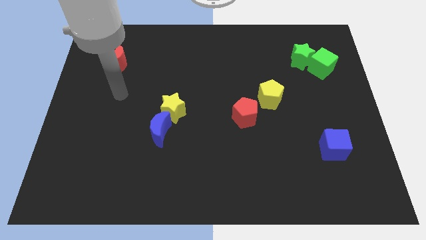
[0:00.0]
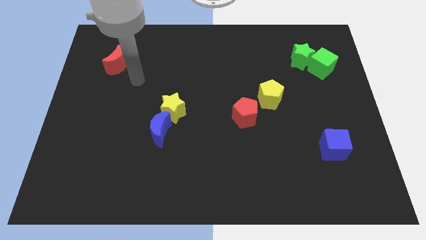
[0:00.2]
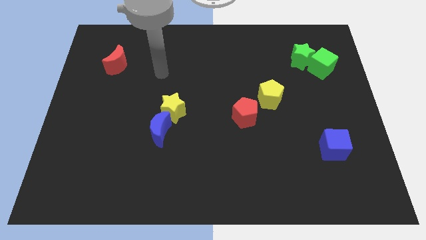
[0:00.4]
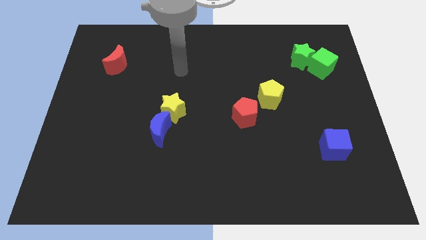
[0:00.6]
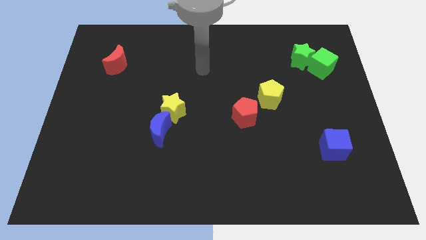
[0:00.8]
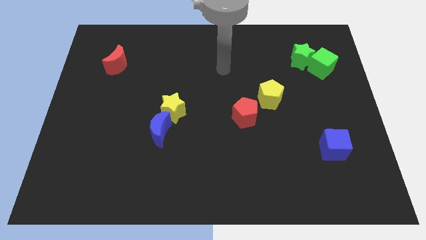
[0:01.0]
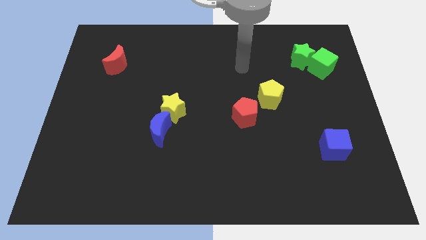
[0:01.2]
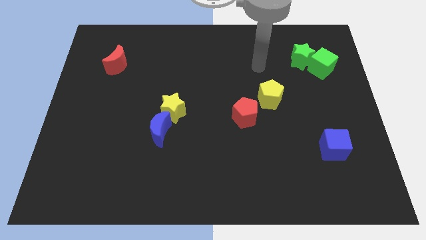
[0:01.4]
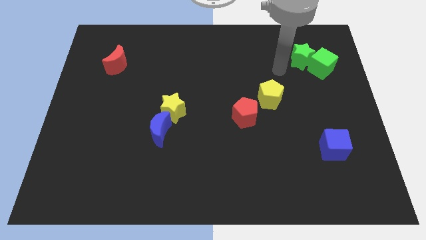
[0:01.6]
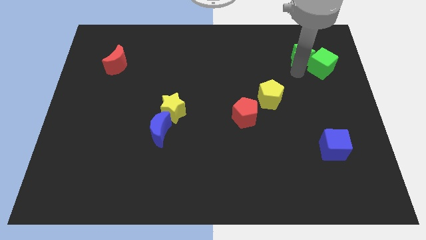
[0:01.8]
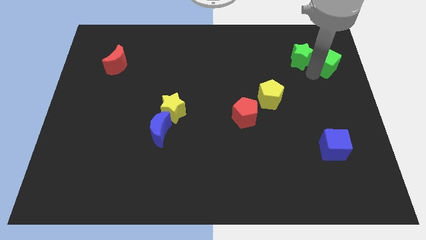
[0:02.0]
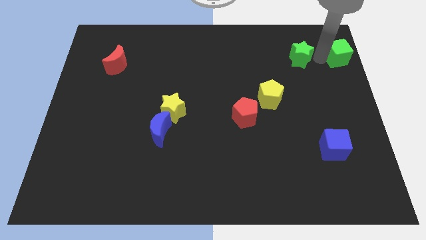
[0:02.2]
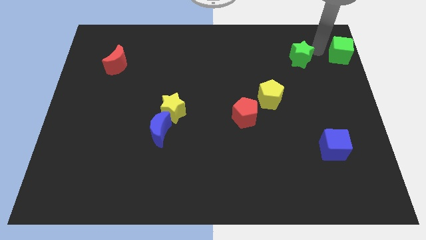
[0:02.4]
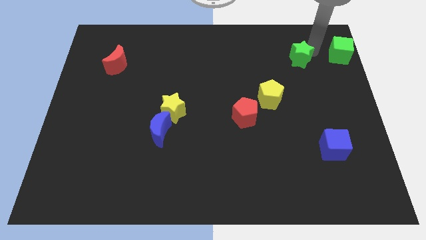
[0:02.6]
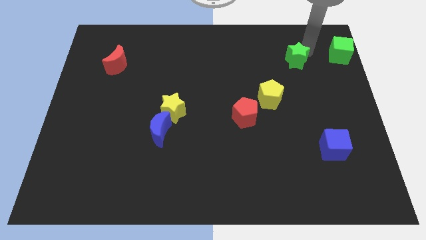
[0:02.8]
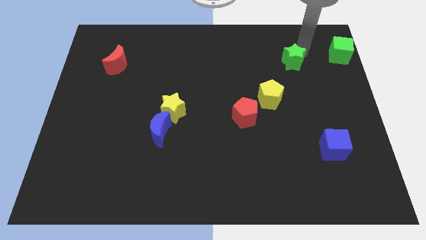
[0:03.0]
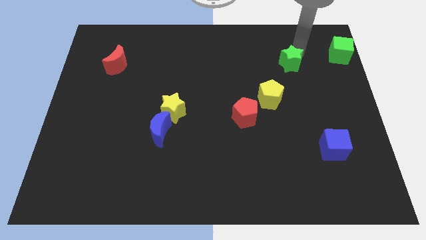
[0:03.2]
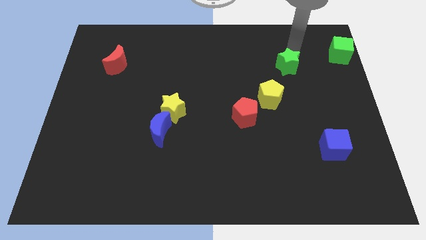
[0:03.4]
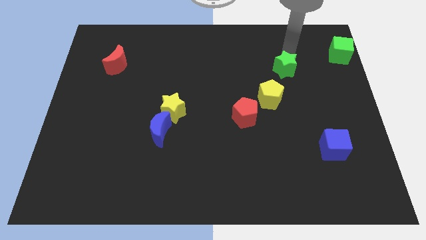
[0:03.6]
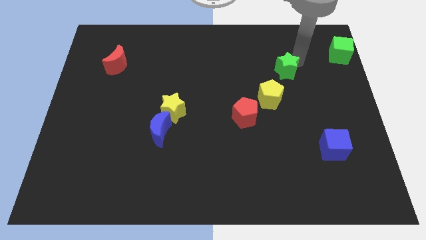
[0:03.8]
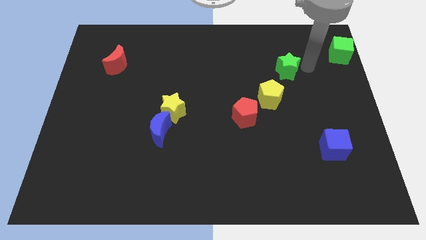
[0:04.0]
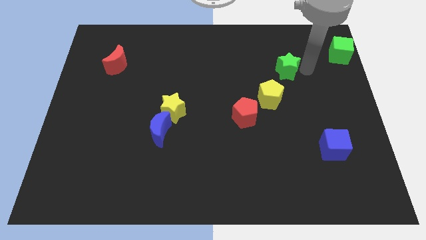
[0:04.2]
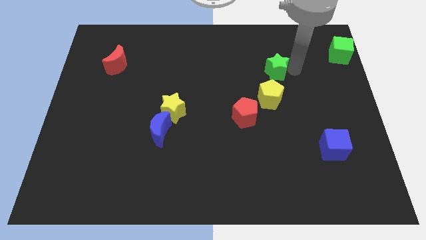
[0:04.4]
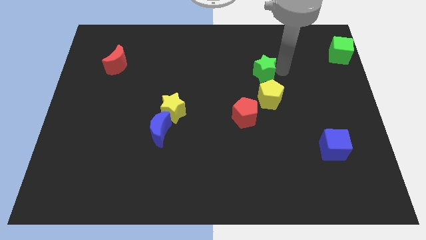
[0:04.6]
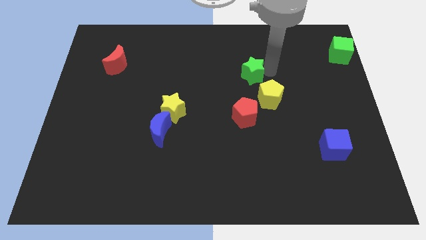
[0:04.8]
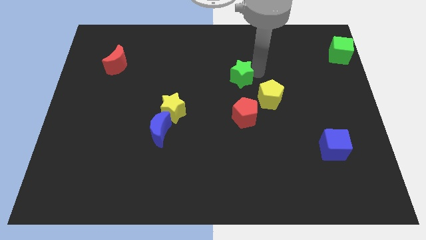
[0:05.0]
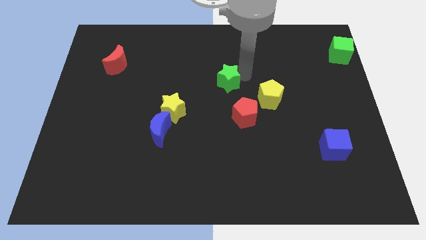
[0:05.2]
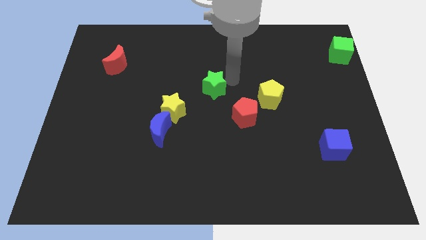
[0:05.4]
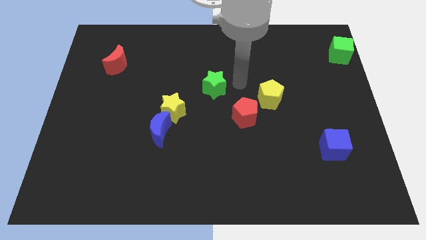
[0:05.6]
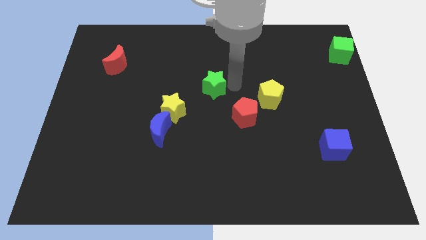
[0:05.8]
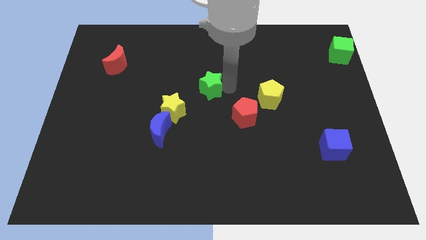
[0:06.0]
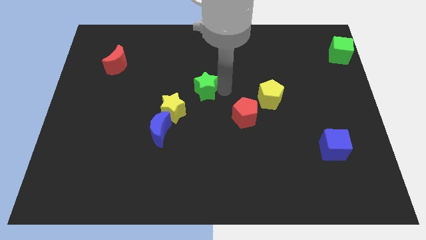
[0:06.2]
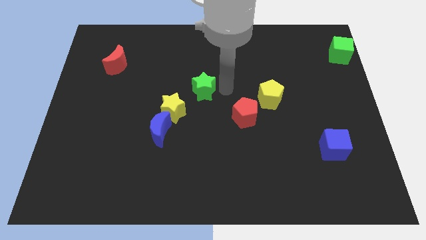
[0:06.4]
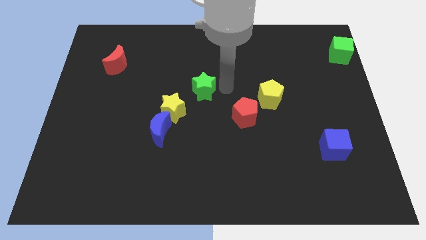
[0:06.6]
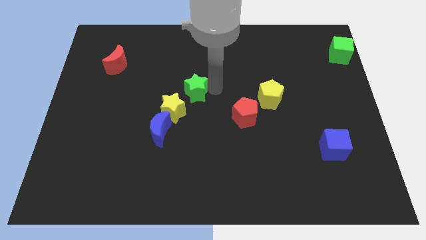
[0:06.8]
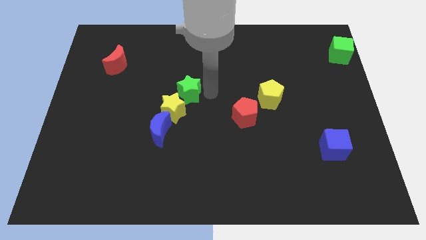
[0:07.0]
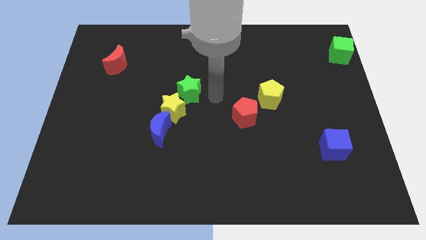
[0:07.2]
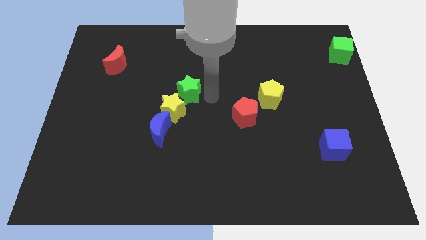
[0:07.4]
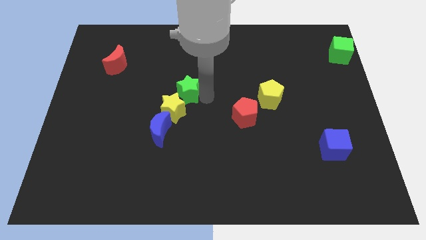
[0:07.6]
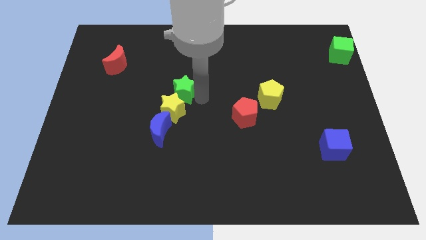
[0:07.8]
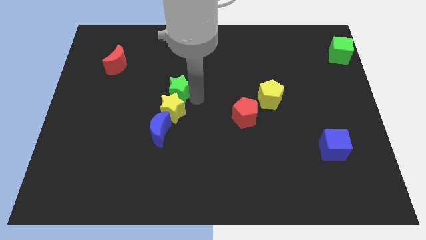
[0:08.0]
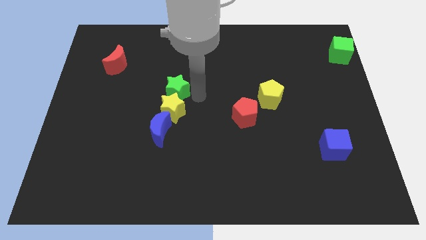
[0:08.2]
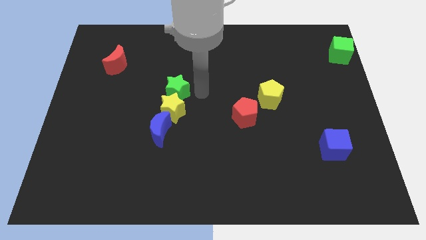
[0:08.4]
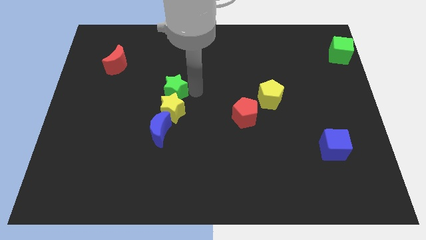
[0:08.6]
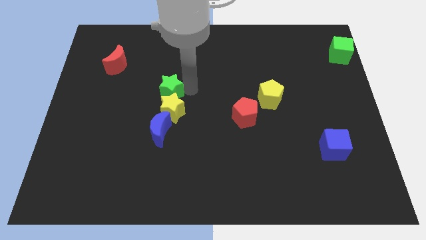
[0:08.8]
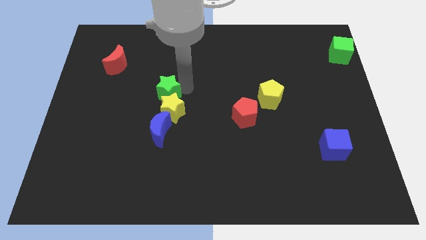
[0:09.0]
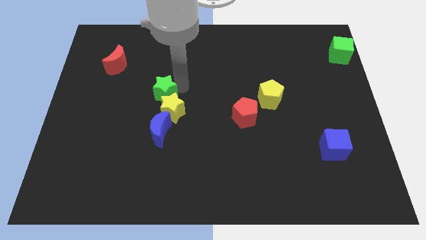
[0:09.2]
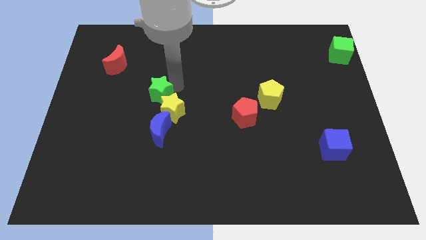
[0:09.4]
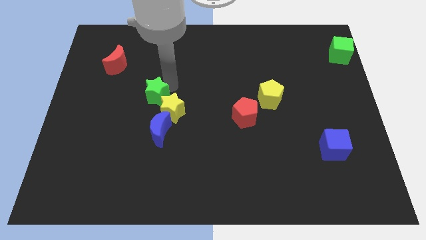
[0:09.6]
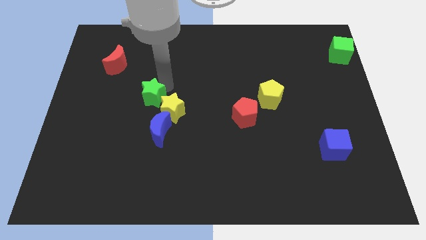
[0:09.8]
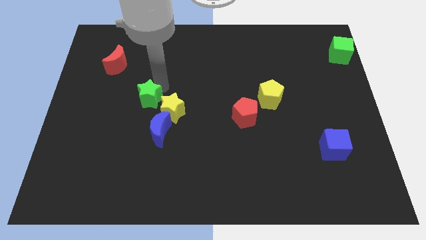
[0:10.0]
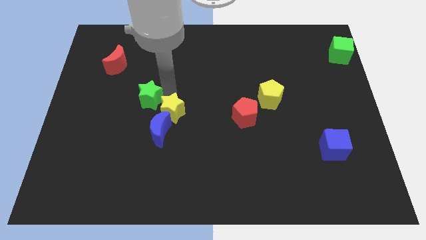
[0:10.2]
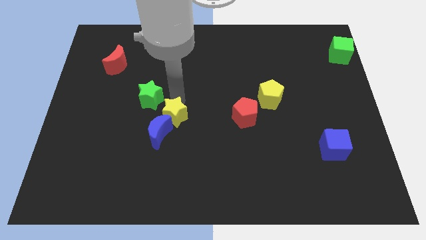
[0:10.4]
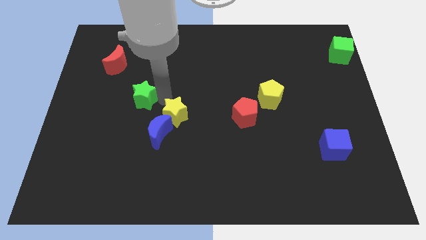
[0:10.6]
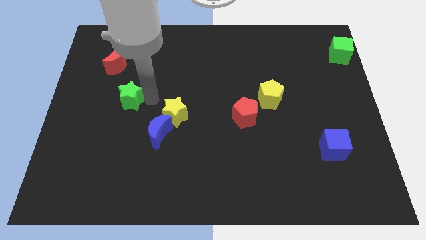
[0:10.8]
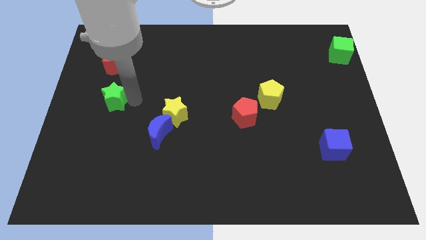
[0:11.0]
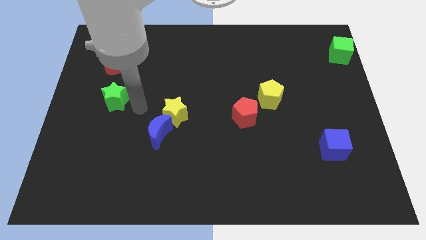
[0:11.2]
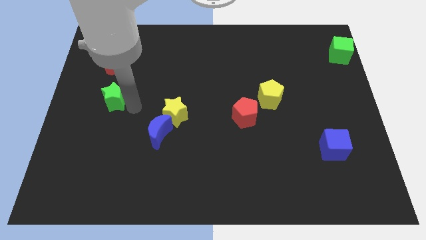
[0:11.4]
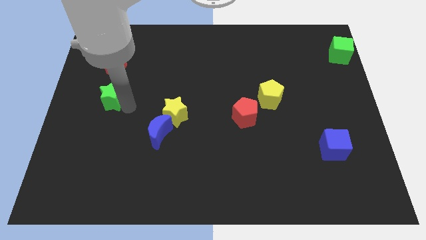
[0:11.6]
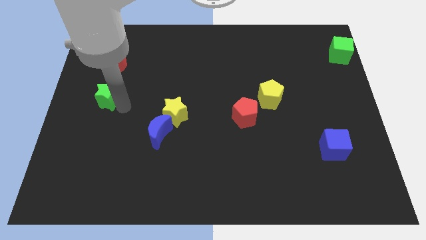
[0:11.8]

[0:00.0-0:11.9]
put the green star to the left side of the board
